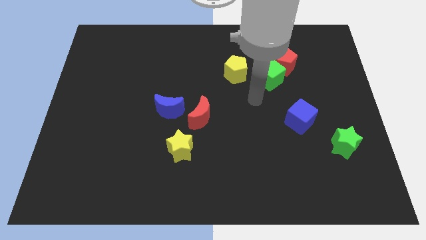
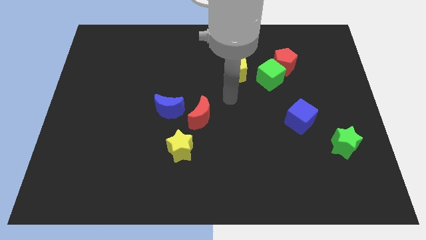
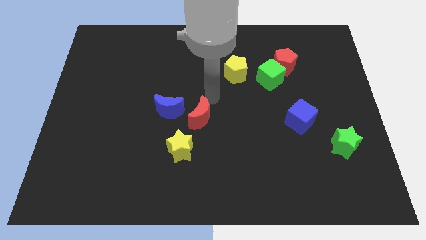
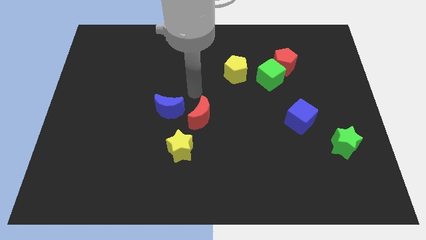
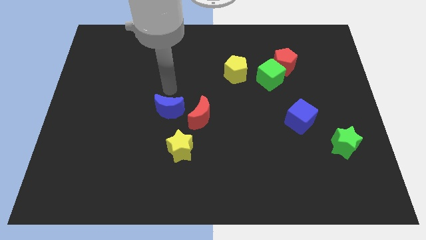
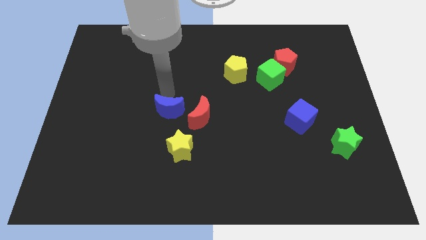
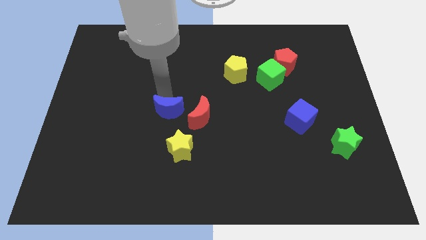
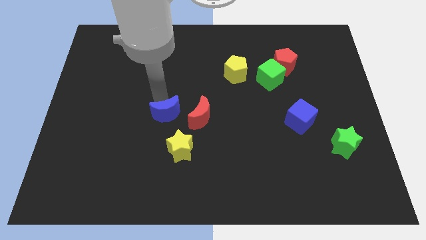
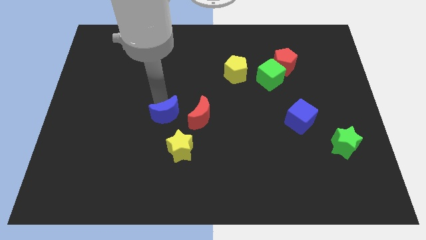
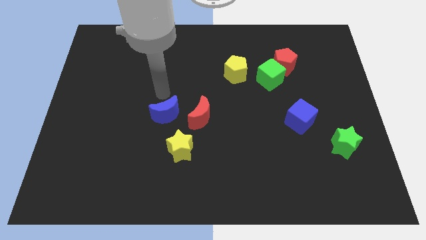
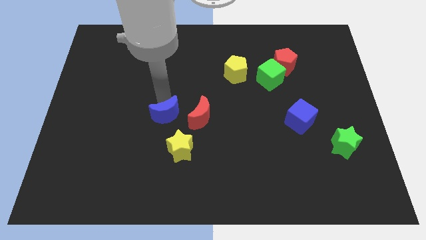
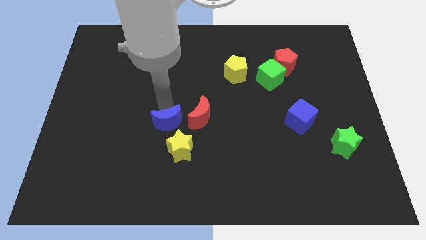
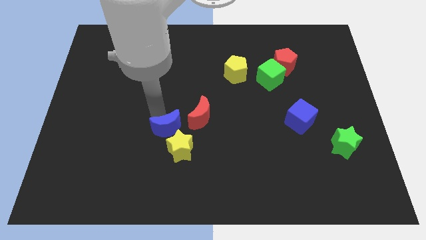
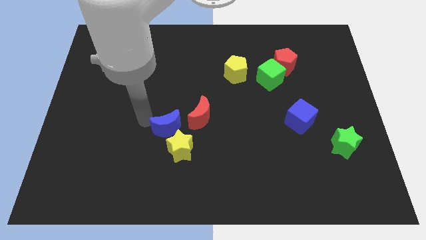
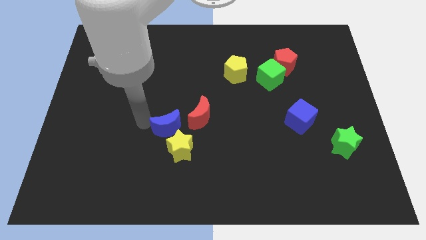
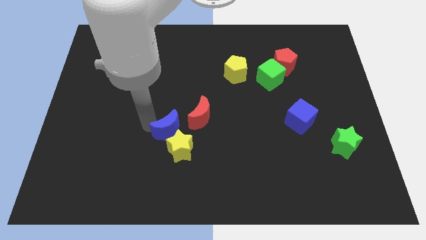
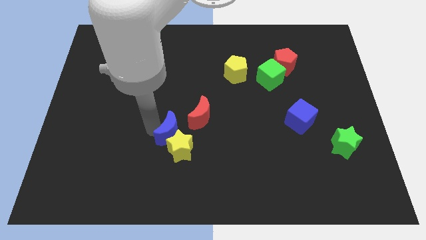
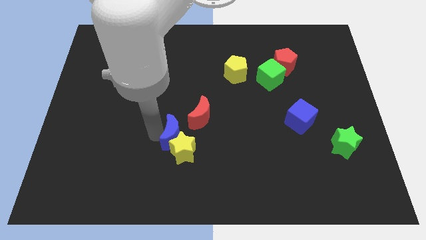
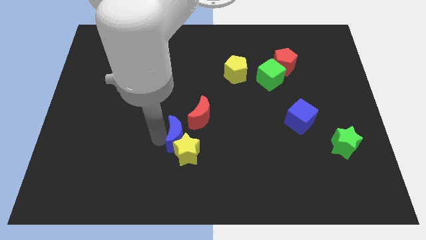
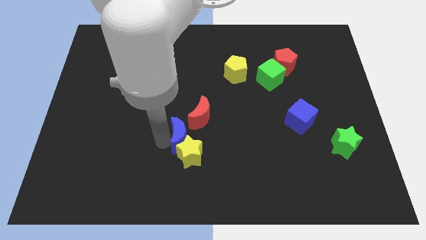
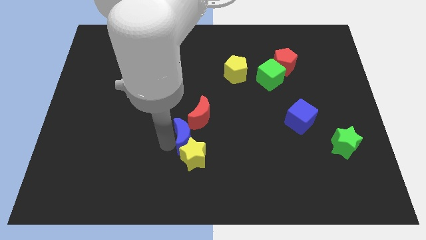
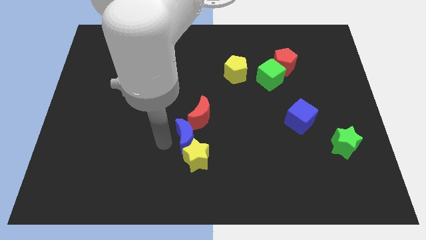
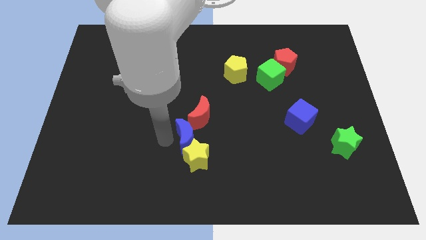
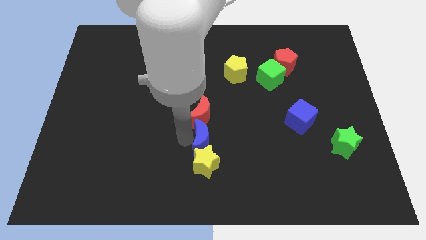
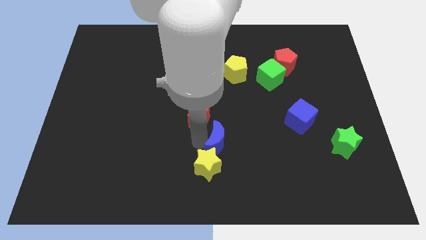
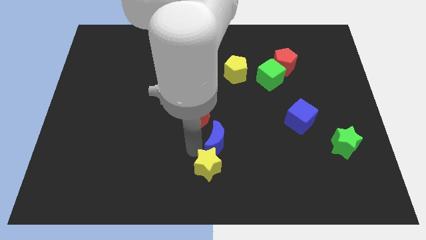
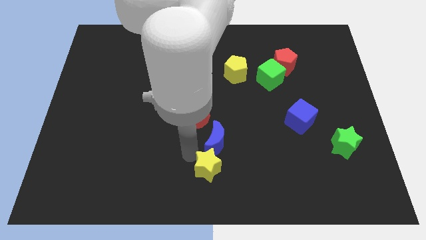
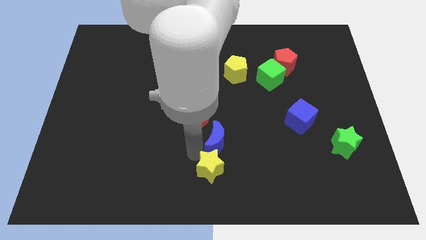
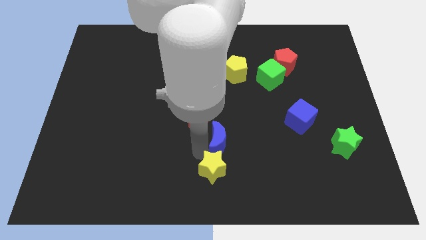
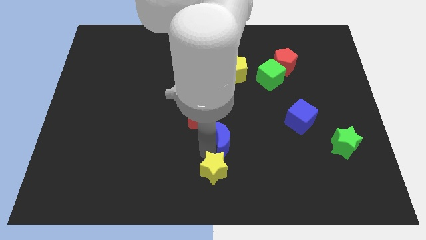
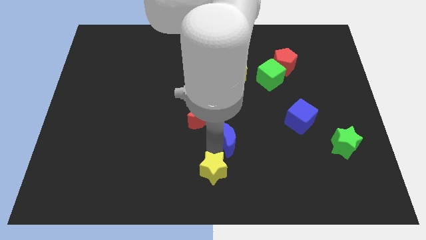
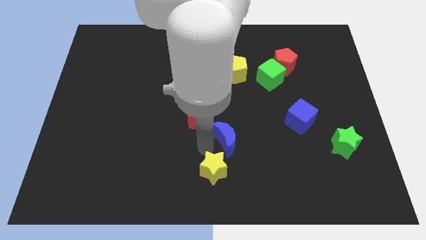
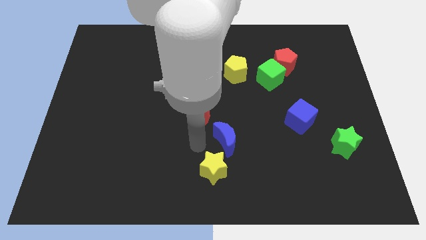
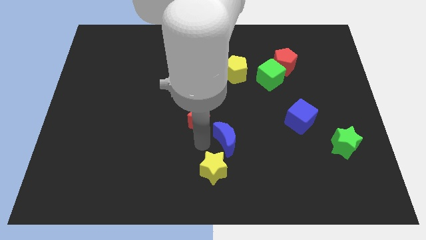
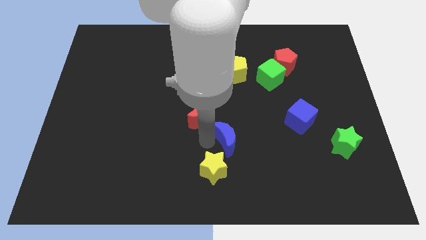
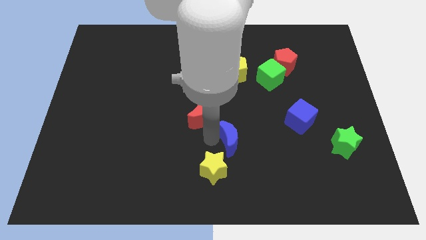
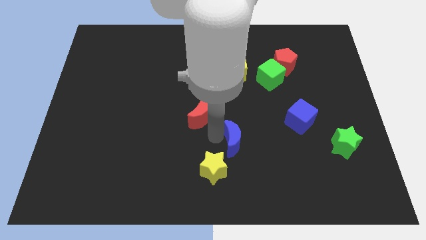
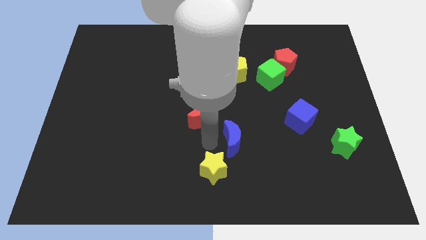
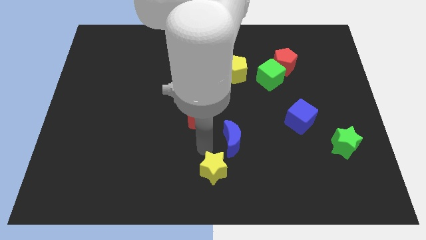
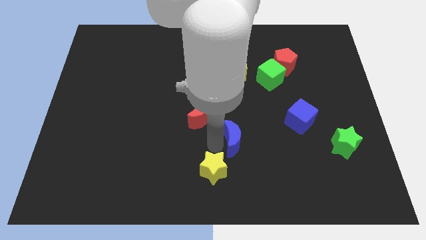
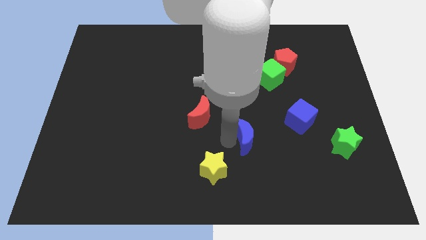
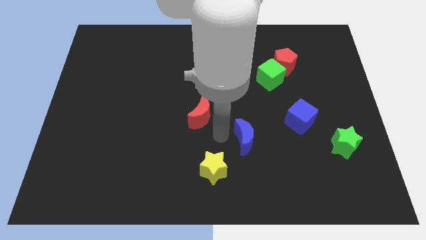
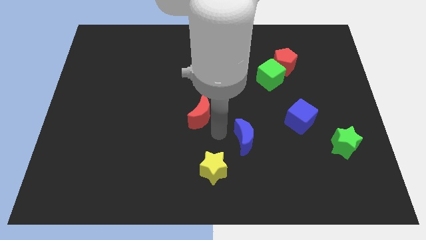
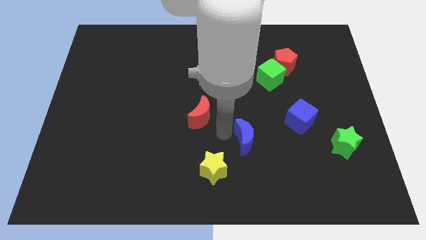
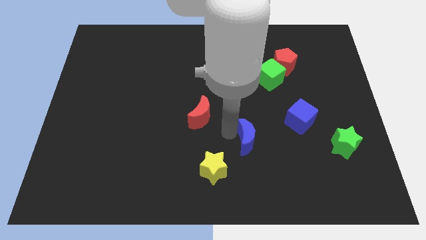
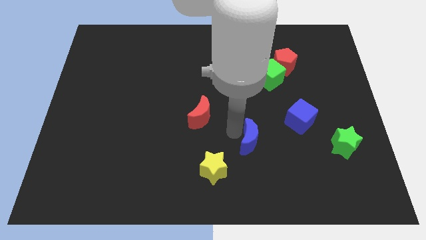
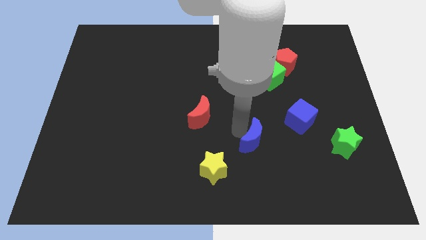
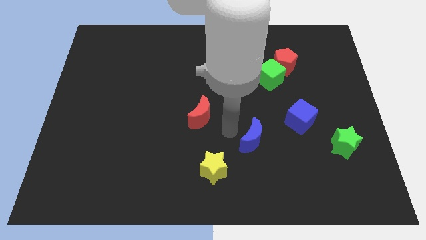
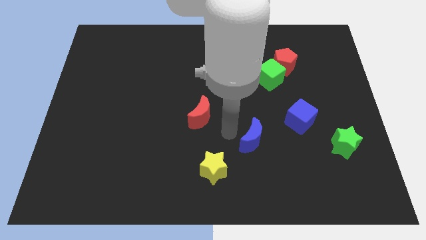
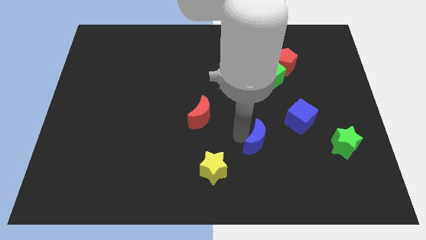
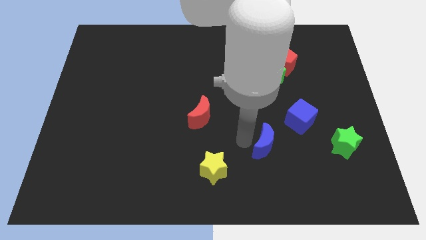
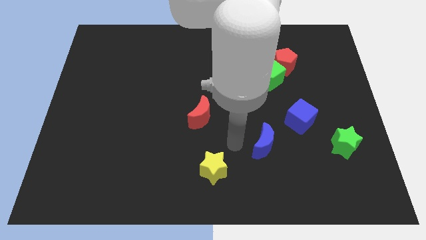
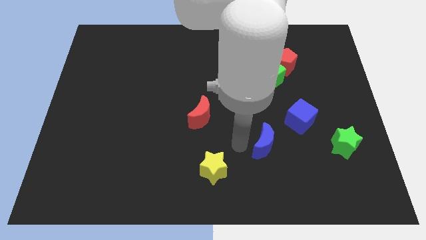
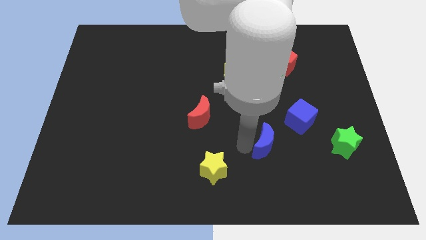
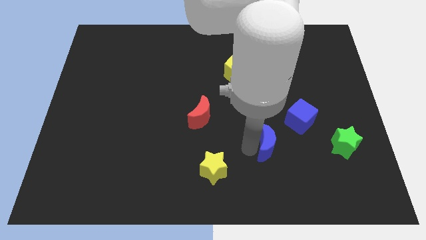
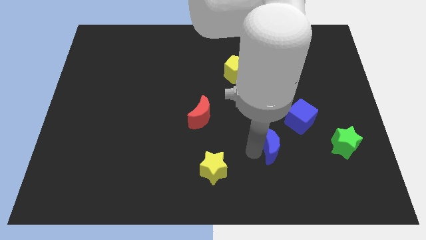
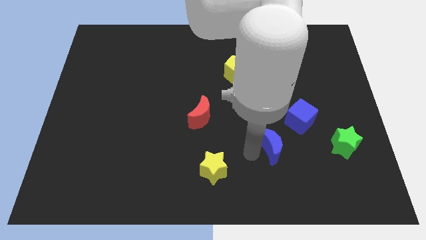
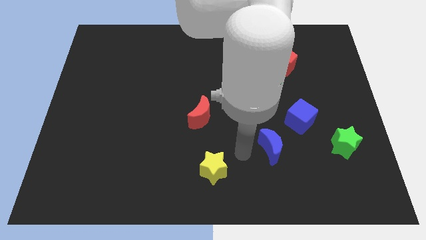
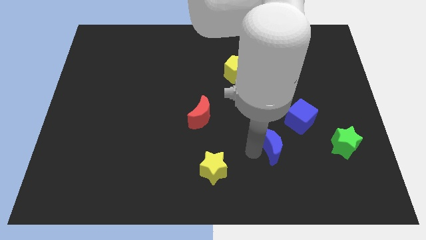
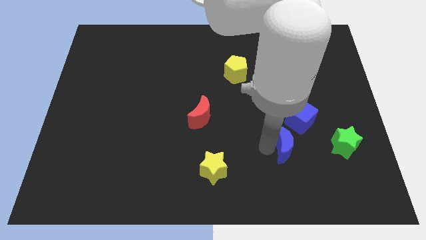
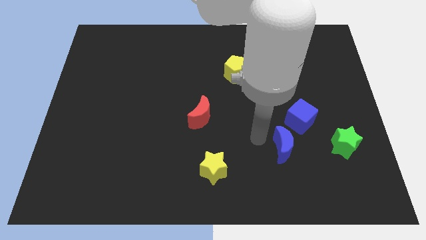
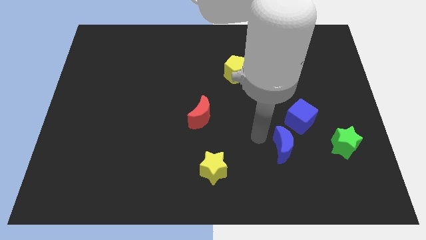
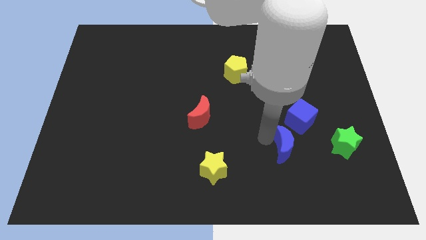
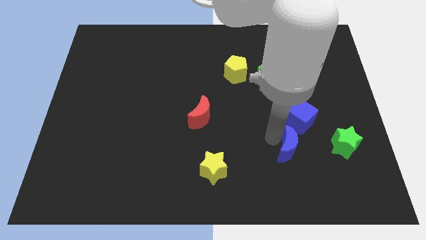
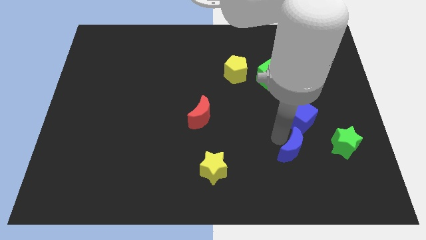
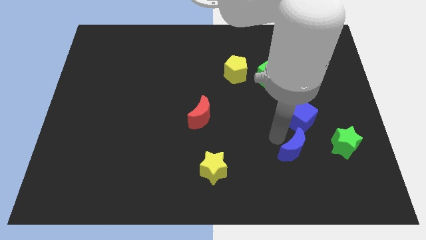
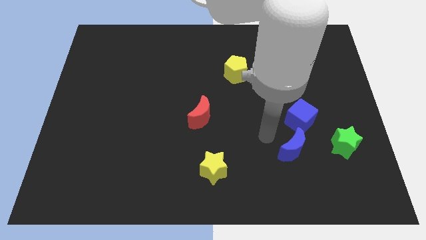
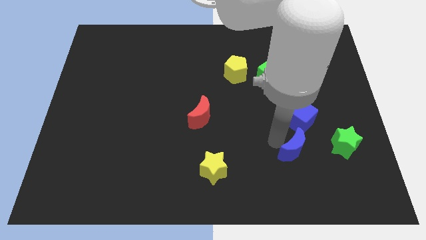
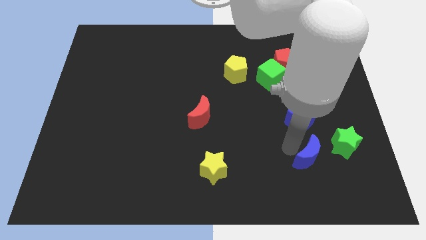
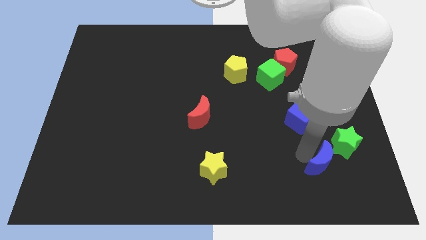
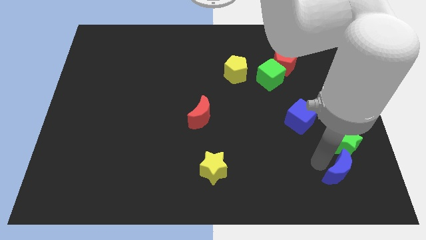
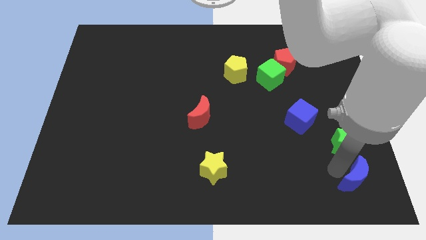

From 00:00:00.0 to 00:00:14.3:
push the blue moon to the lower right corner

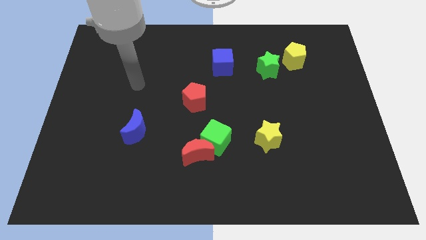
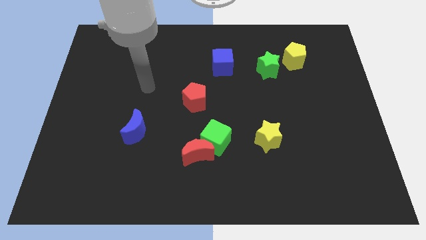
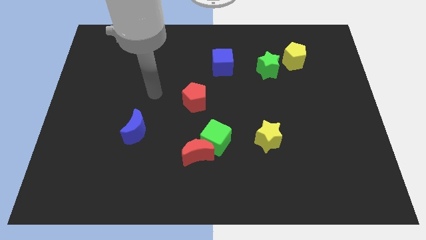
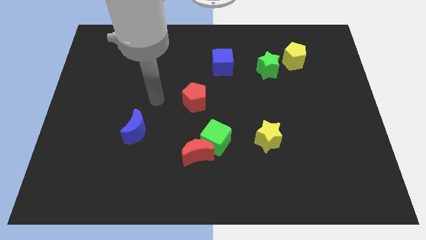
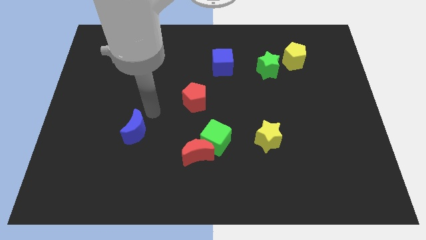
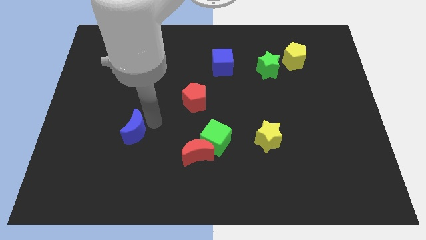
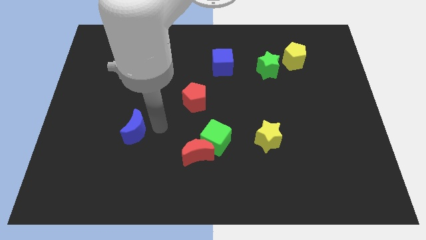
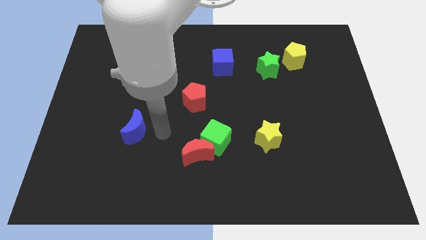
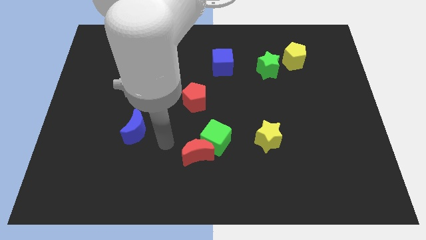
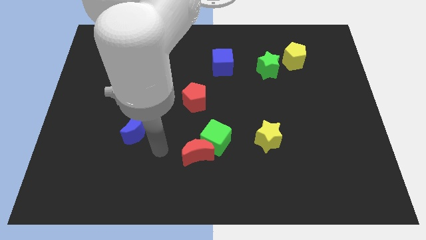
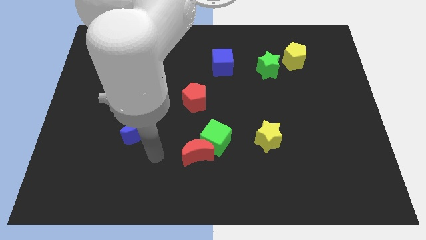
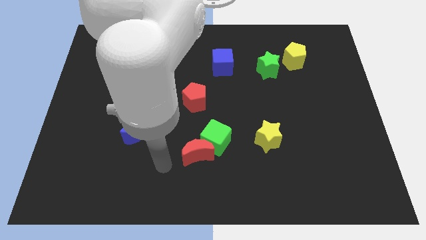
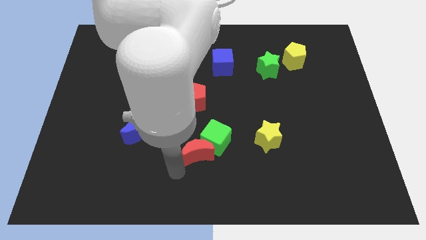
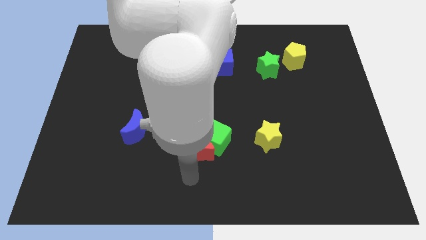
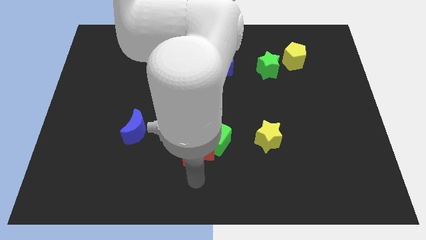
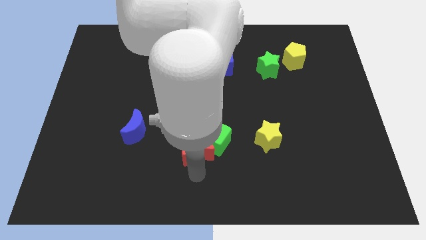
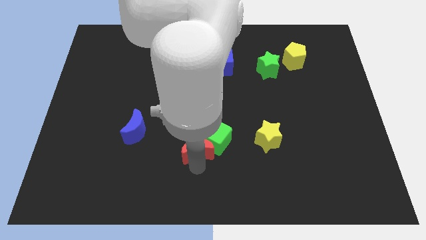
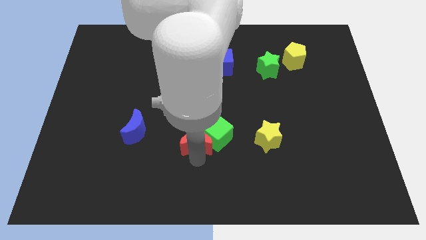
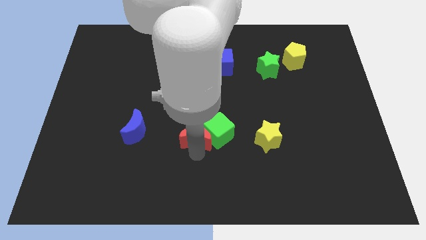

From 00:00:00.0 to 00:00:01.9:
slide the red moon to the middle
